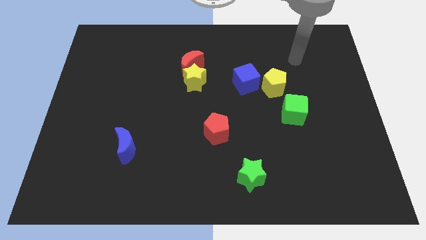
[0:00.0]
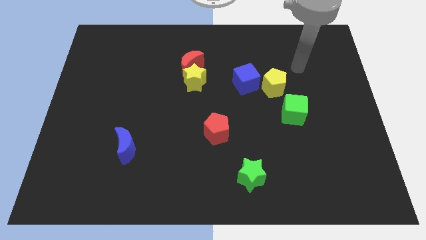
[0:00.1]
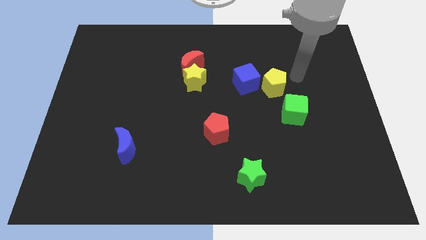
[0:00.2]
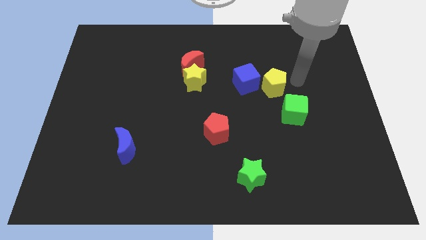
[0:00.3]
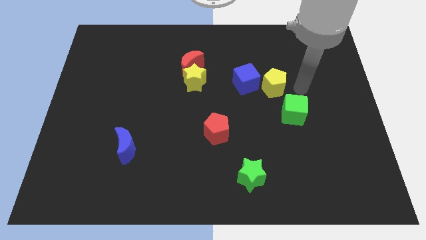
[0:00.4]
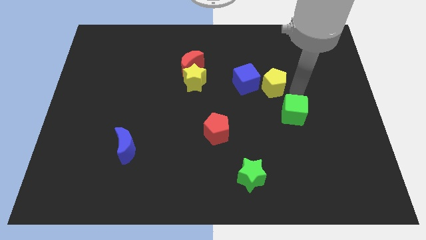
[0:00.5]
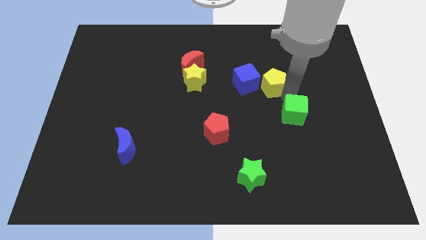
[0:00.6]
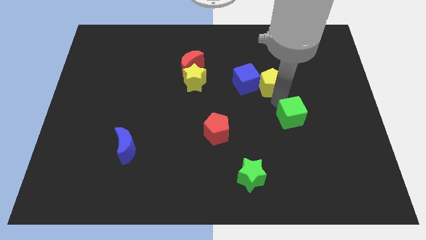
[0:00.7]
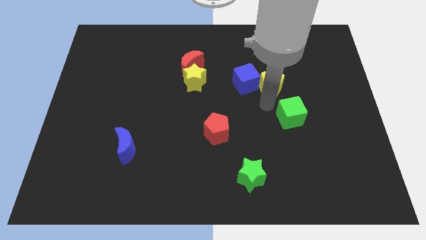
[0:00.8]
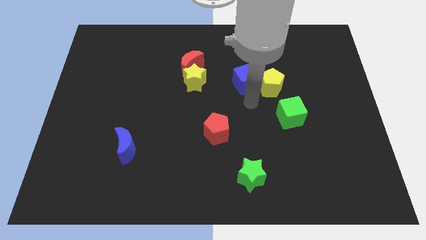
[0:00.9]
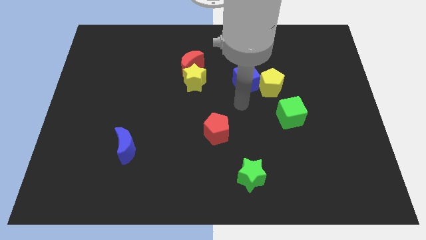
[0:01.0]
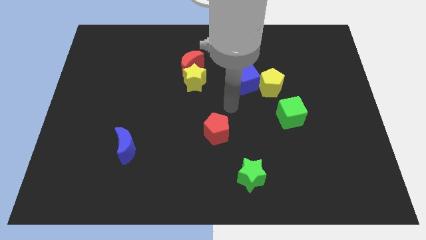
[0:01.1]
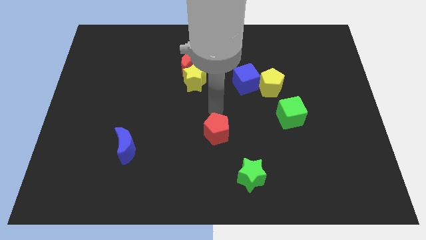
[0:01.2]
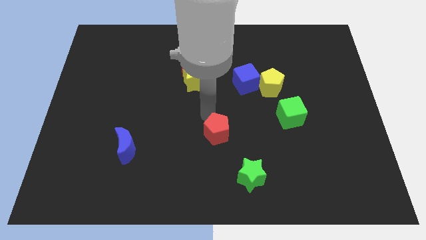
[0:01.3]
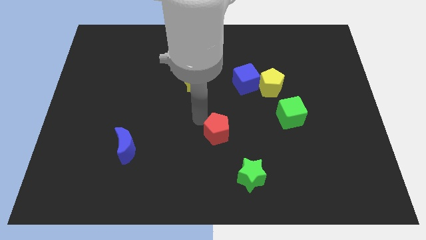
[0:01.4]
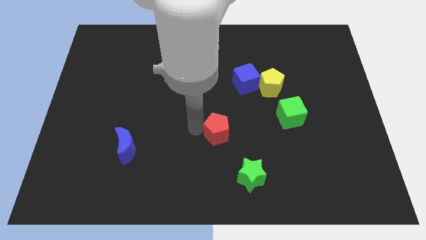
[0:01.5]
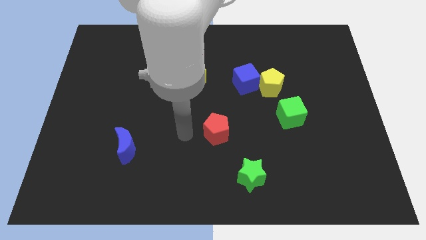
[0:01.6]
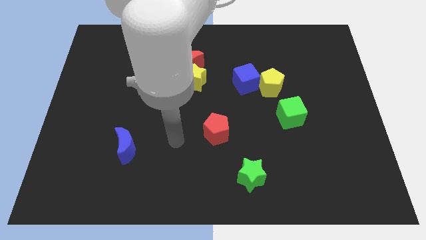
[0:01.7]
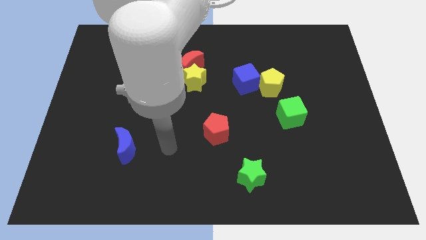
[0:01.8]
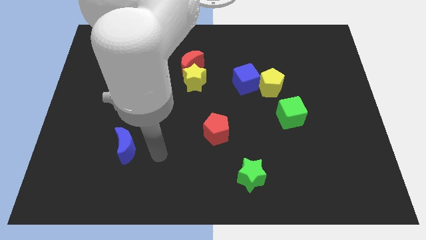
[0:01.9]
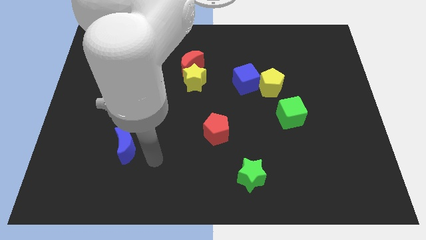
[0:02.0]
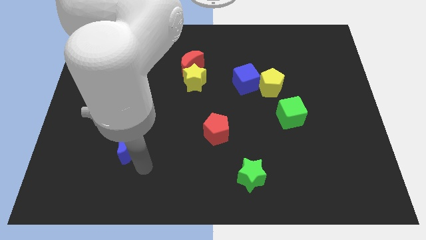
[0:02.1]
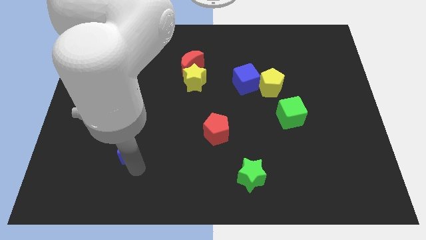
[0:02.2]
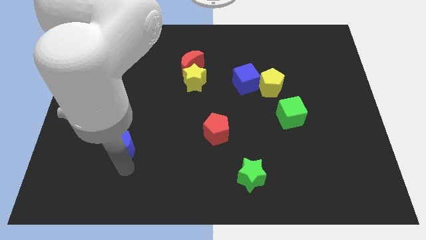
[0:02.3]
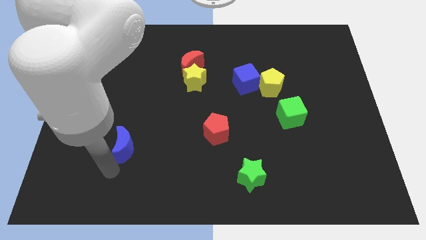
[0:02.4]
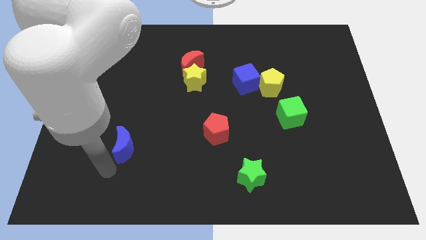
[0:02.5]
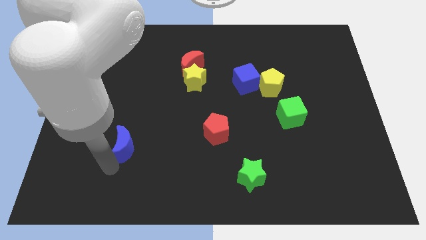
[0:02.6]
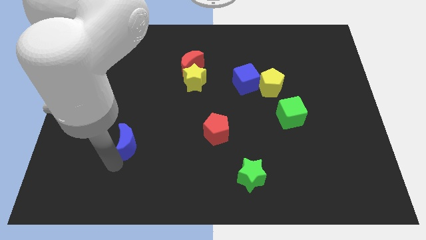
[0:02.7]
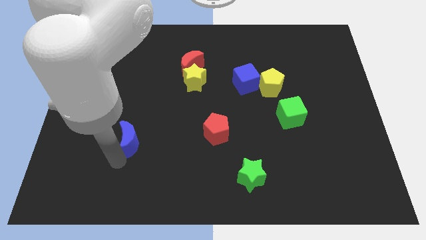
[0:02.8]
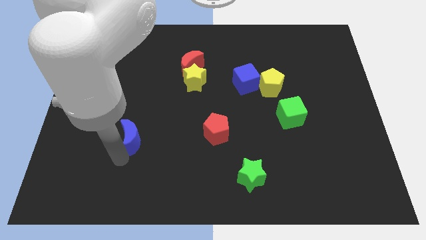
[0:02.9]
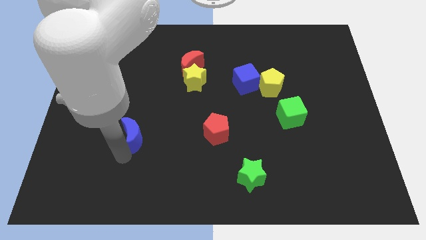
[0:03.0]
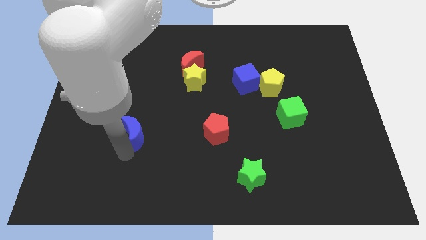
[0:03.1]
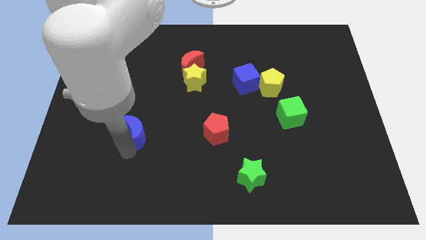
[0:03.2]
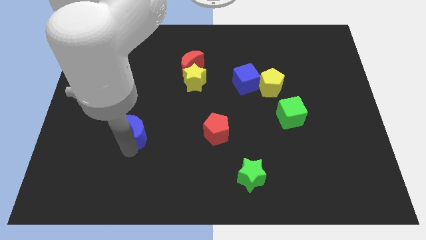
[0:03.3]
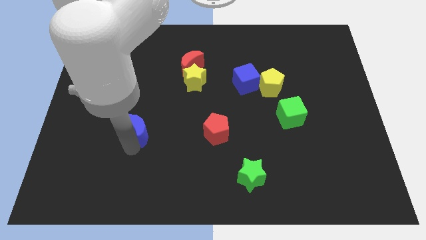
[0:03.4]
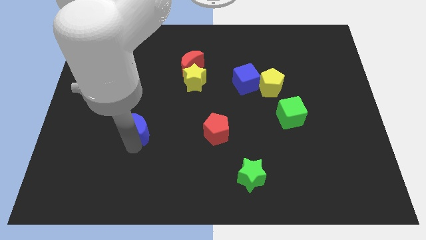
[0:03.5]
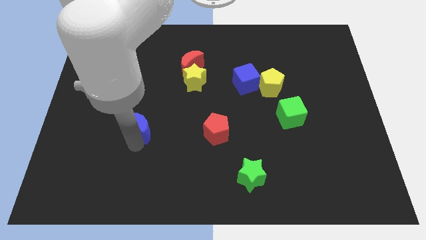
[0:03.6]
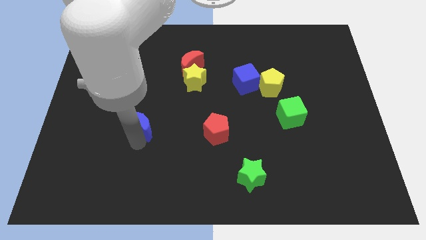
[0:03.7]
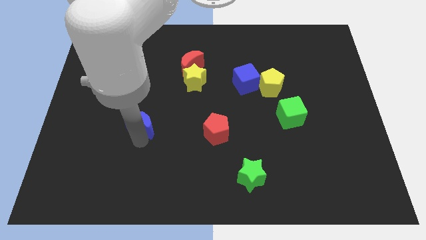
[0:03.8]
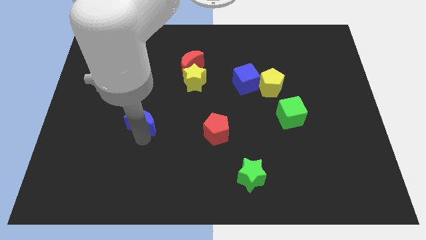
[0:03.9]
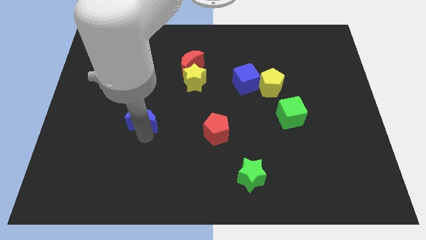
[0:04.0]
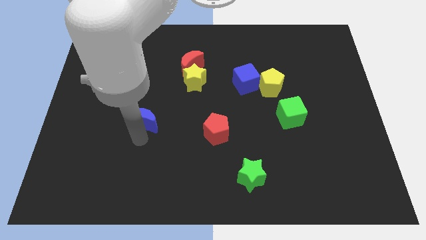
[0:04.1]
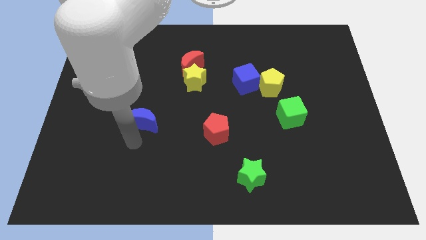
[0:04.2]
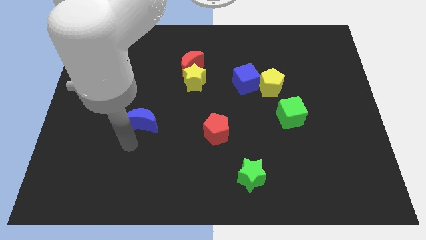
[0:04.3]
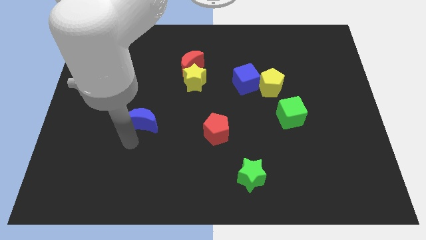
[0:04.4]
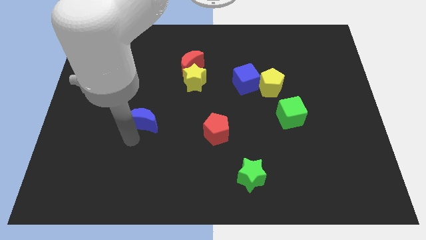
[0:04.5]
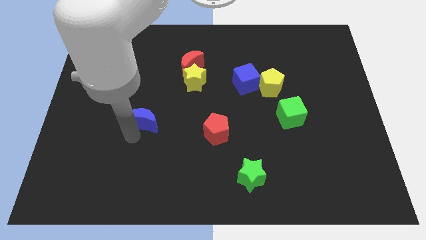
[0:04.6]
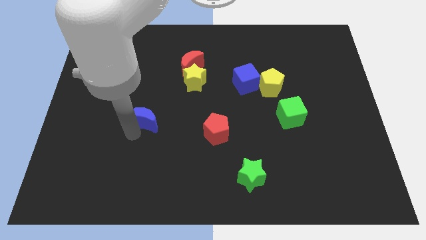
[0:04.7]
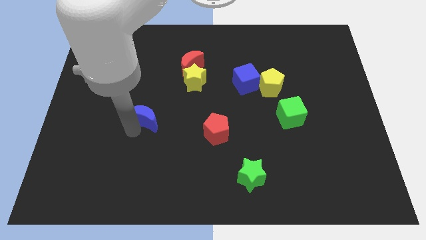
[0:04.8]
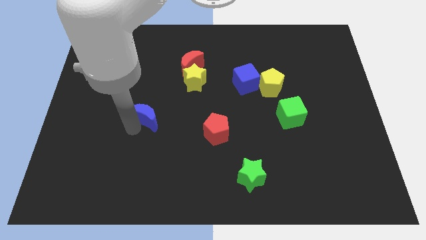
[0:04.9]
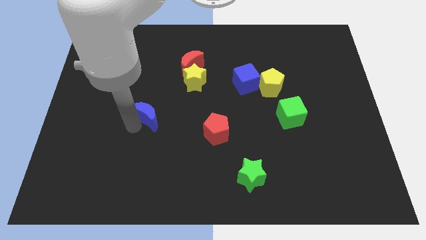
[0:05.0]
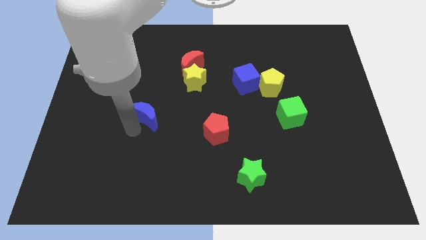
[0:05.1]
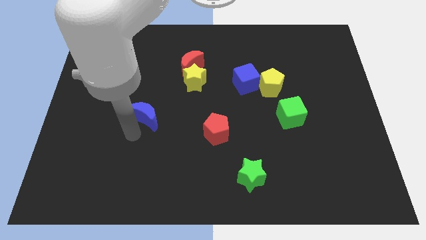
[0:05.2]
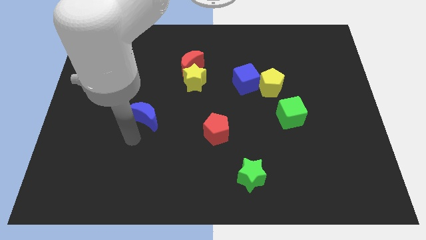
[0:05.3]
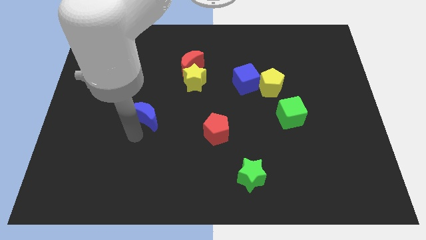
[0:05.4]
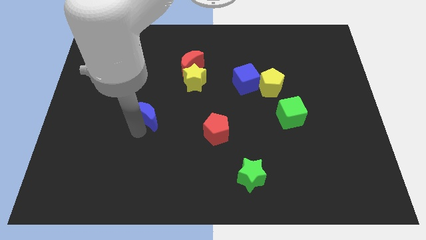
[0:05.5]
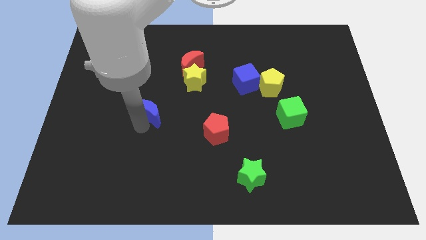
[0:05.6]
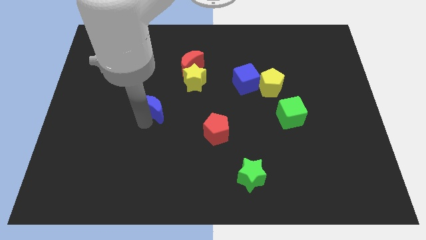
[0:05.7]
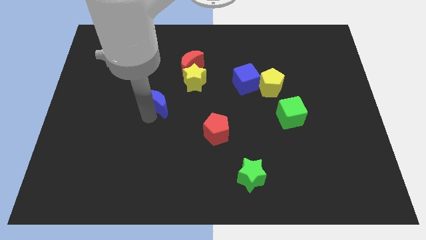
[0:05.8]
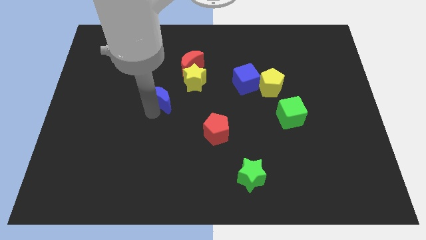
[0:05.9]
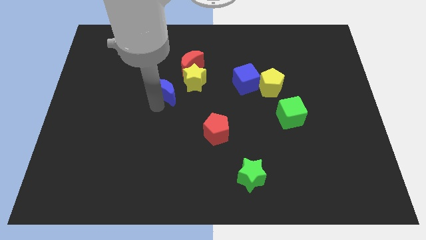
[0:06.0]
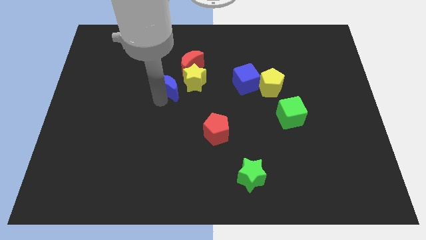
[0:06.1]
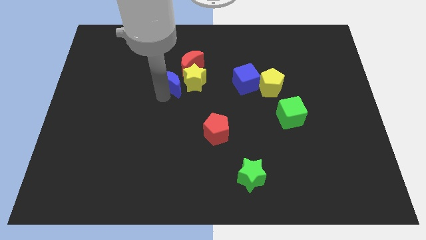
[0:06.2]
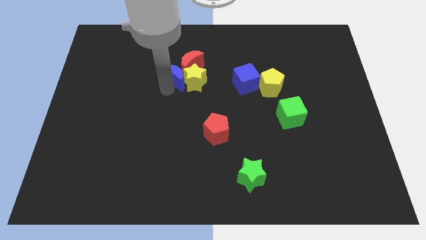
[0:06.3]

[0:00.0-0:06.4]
move the blue moon close to the red moon
